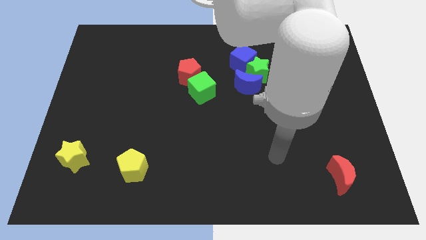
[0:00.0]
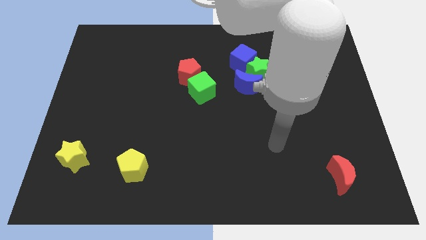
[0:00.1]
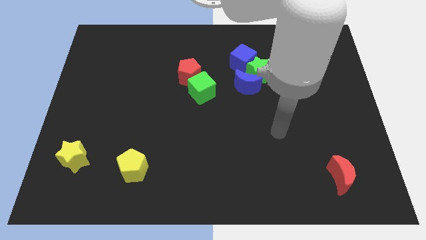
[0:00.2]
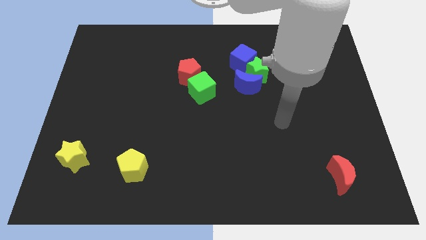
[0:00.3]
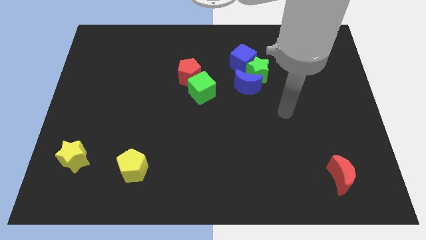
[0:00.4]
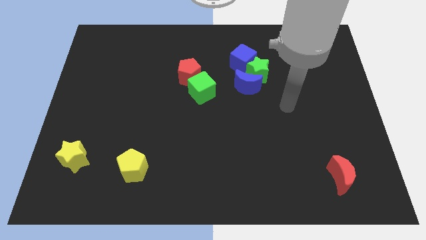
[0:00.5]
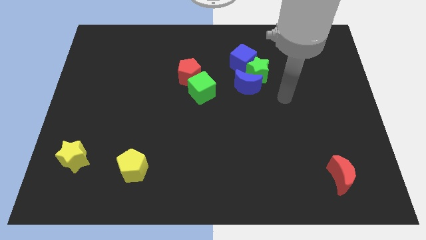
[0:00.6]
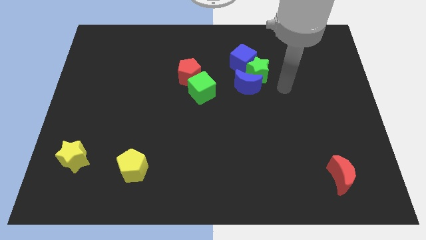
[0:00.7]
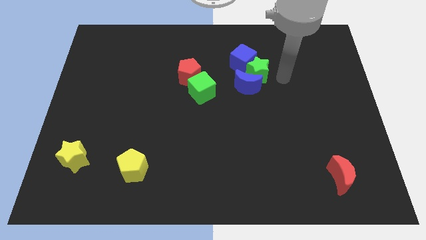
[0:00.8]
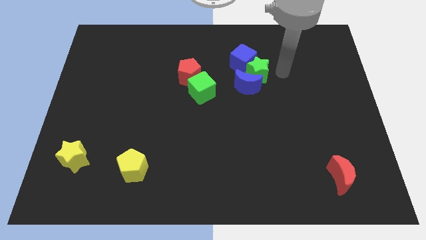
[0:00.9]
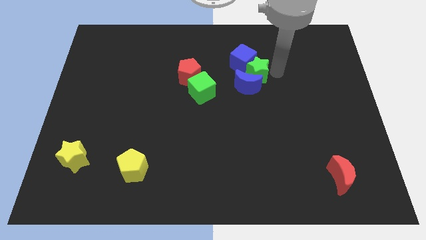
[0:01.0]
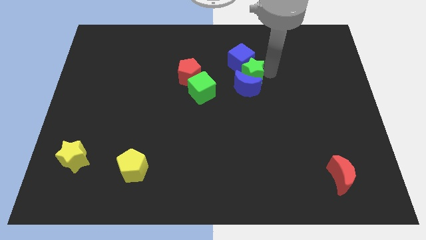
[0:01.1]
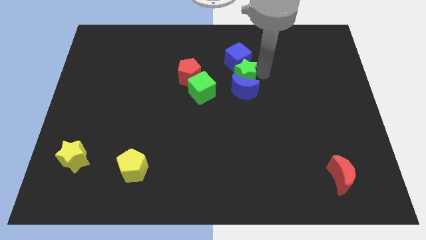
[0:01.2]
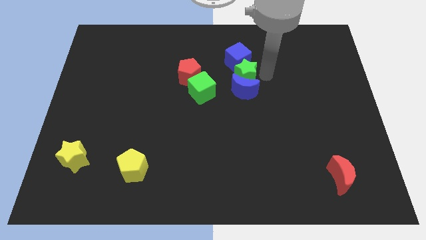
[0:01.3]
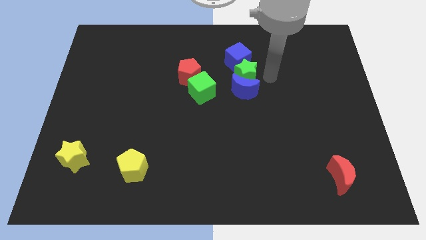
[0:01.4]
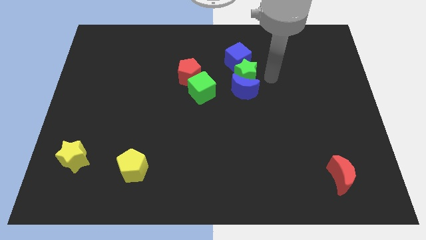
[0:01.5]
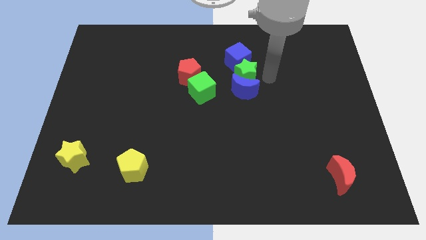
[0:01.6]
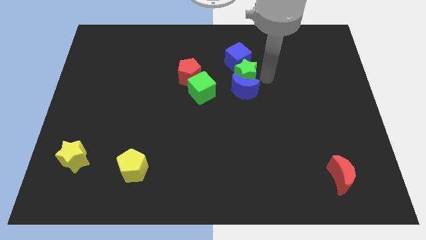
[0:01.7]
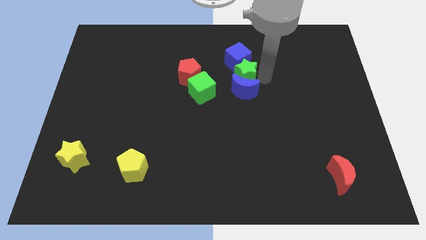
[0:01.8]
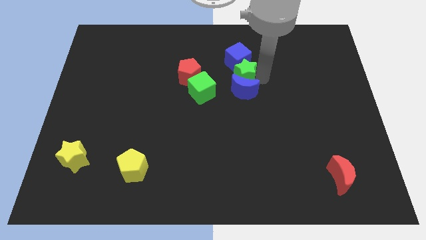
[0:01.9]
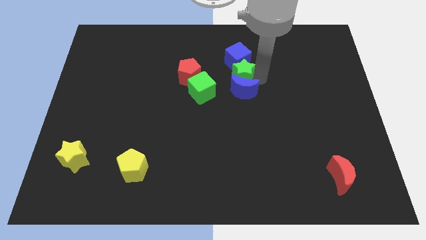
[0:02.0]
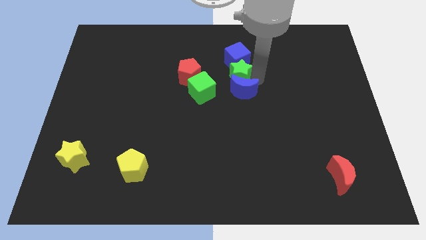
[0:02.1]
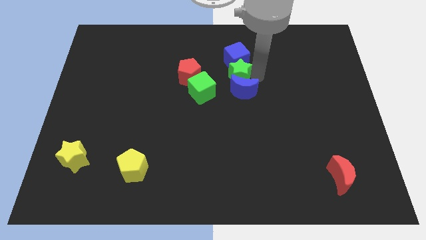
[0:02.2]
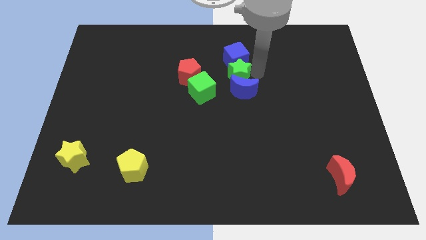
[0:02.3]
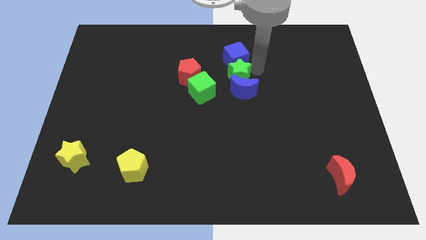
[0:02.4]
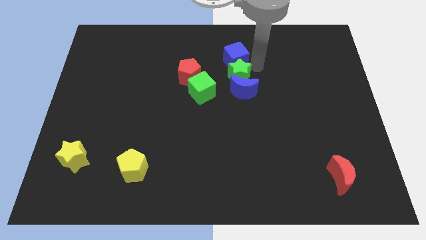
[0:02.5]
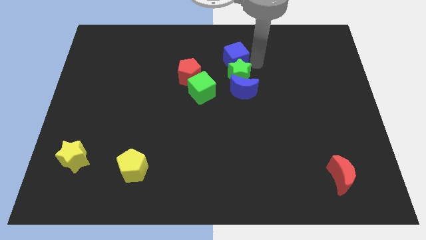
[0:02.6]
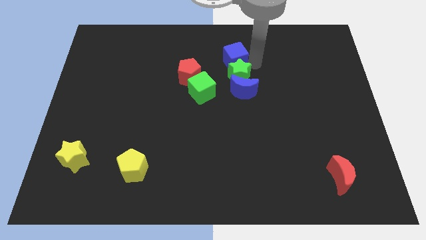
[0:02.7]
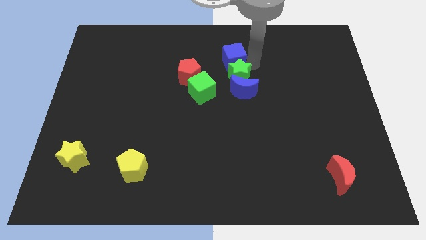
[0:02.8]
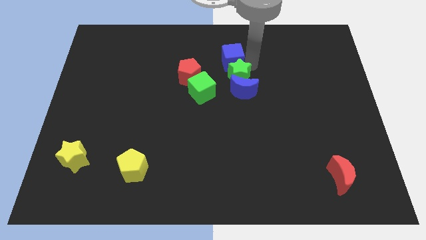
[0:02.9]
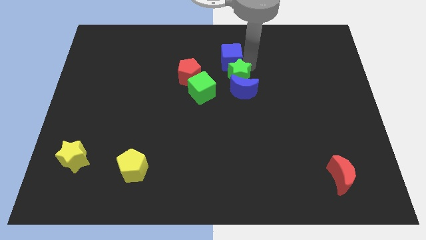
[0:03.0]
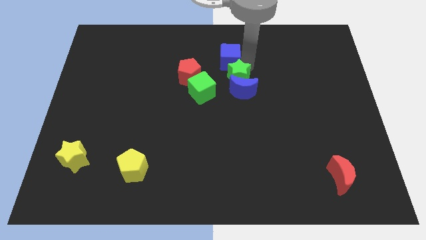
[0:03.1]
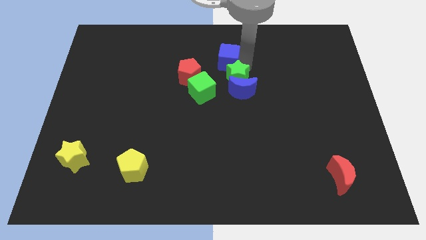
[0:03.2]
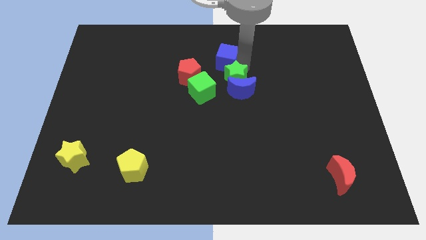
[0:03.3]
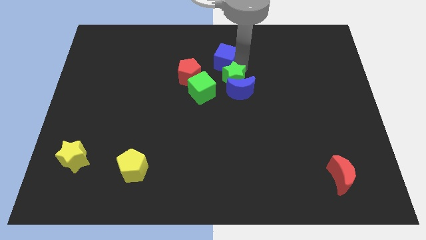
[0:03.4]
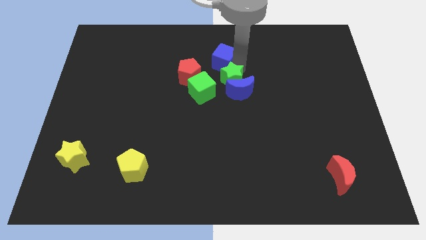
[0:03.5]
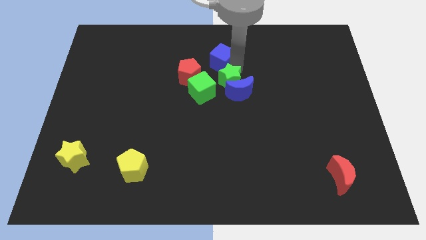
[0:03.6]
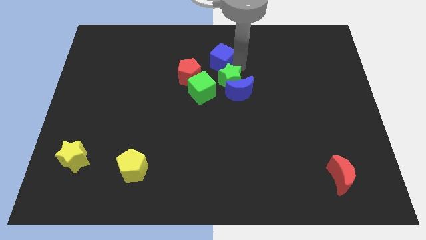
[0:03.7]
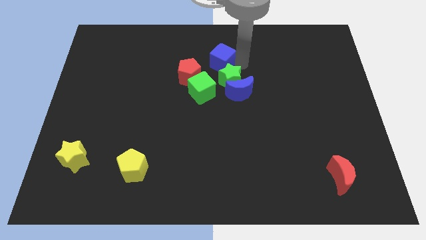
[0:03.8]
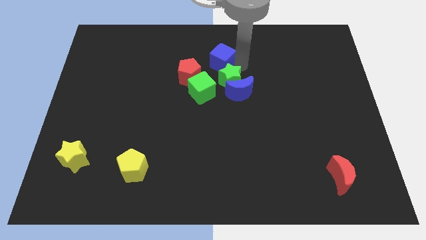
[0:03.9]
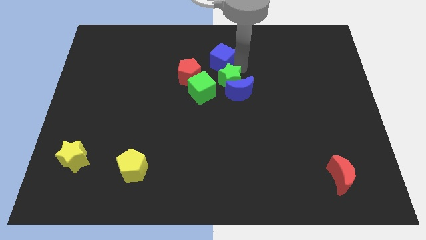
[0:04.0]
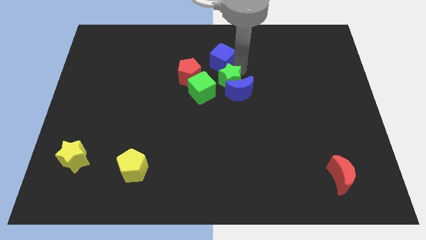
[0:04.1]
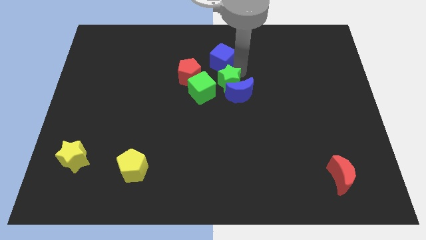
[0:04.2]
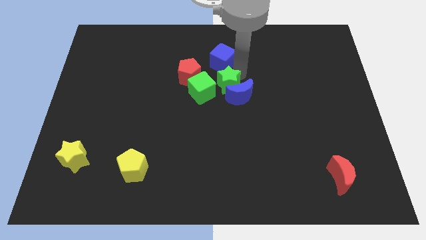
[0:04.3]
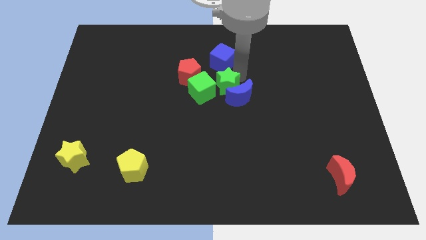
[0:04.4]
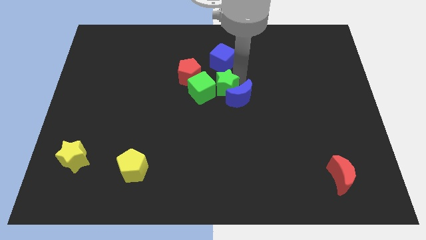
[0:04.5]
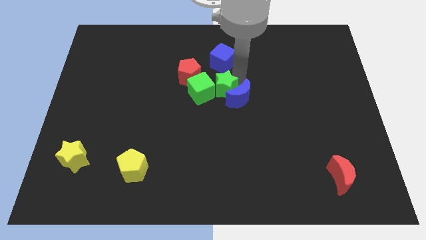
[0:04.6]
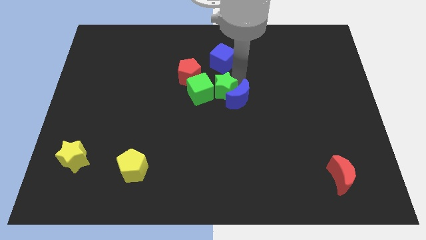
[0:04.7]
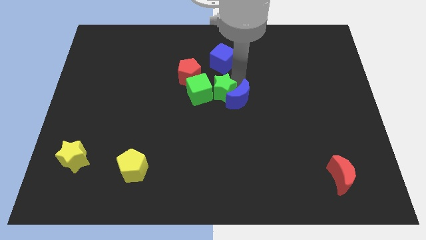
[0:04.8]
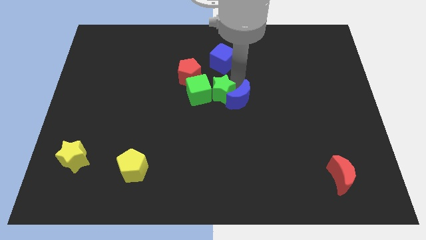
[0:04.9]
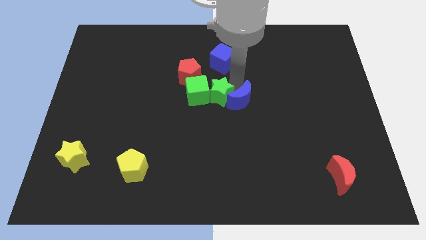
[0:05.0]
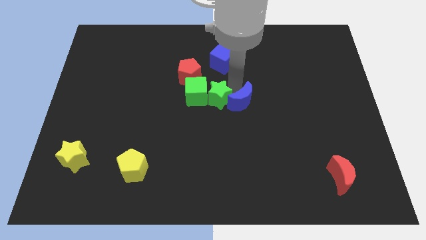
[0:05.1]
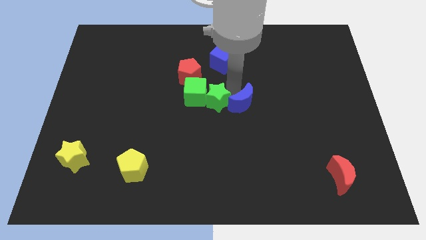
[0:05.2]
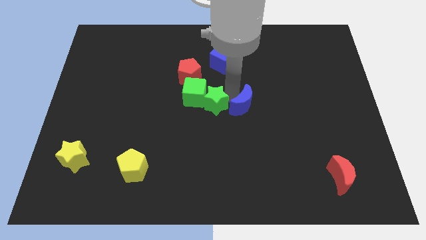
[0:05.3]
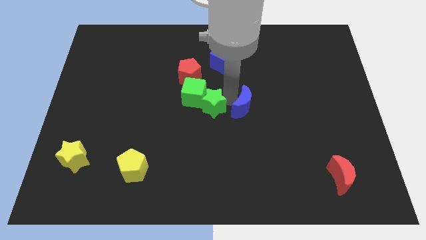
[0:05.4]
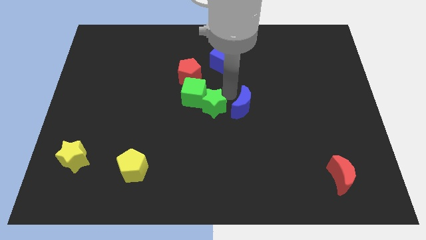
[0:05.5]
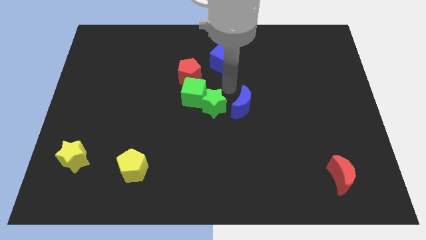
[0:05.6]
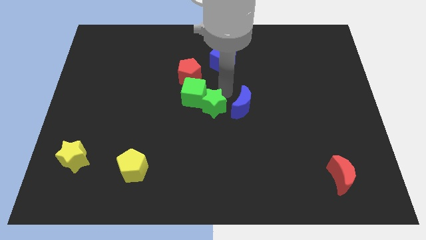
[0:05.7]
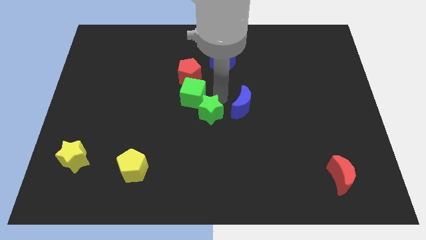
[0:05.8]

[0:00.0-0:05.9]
put the green star to the bottom of the green cube
